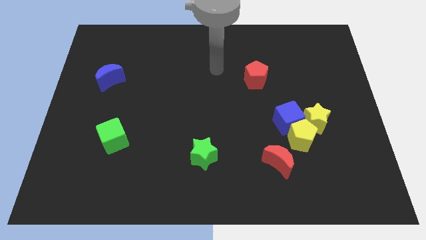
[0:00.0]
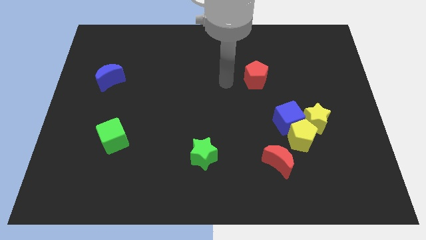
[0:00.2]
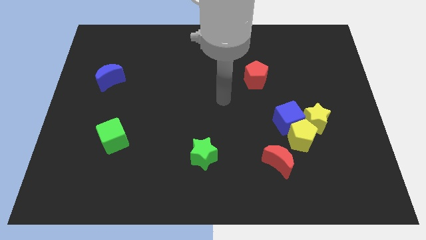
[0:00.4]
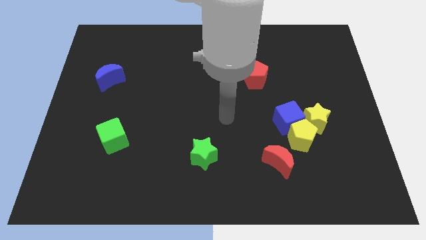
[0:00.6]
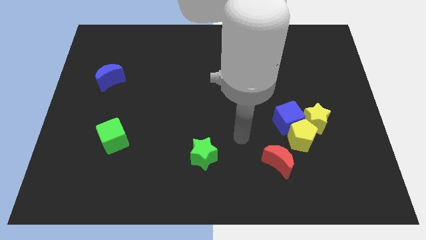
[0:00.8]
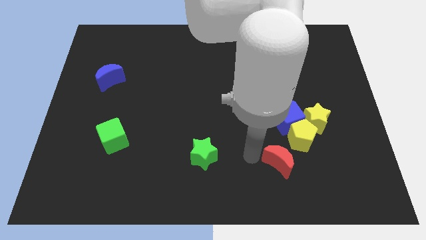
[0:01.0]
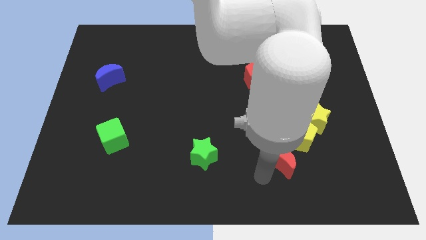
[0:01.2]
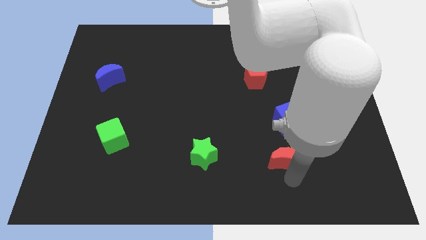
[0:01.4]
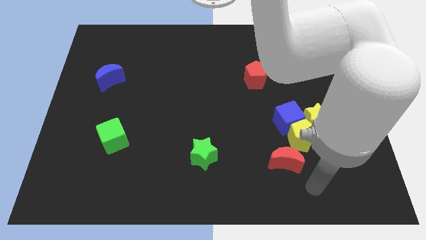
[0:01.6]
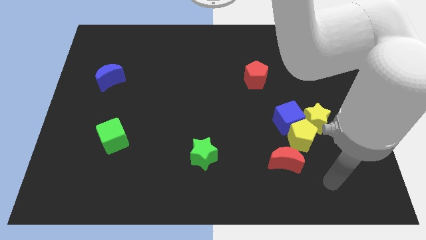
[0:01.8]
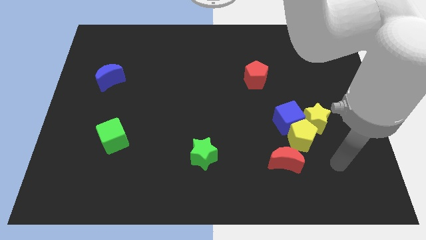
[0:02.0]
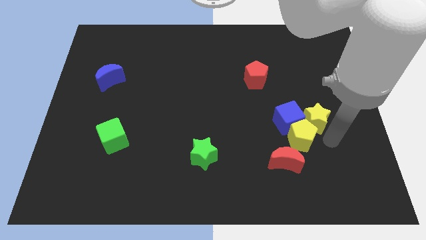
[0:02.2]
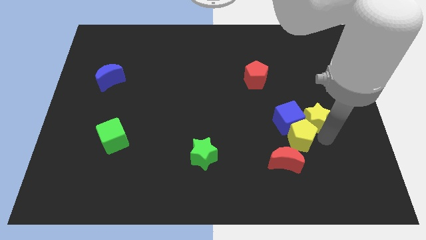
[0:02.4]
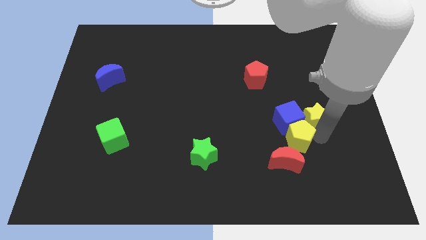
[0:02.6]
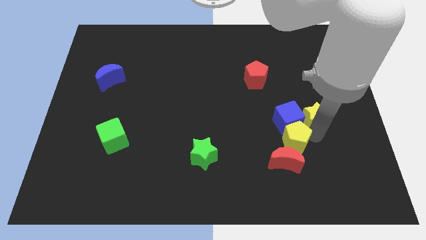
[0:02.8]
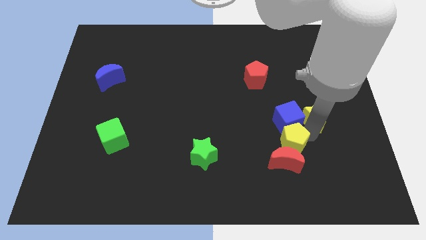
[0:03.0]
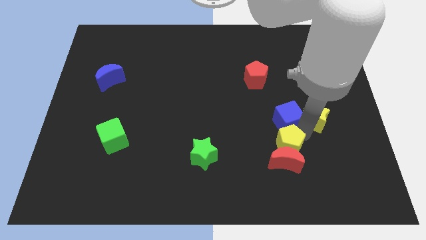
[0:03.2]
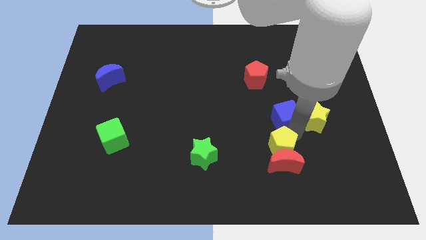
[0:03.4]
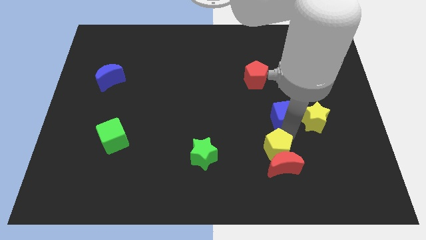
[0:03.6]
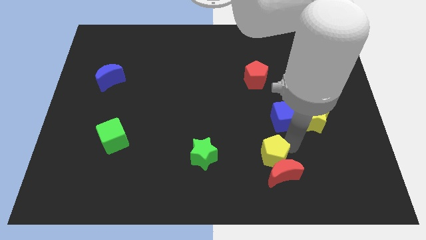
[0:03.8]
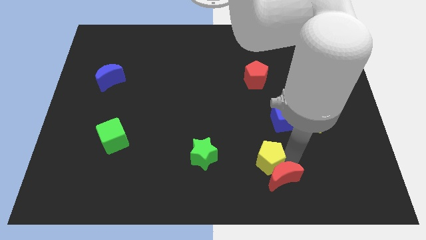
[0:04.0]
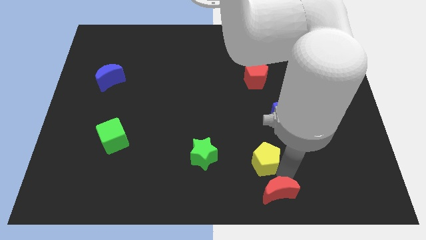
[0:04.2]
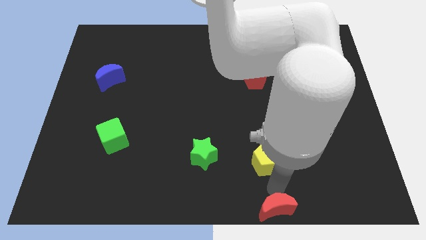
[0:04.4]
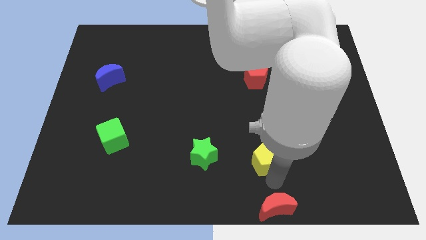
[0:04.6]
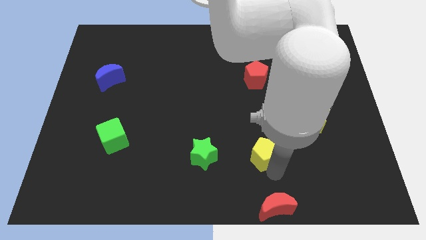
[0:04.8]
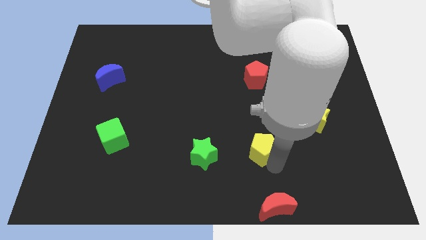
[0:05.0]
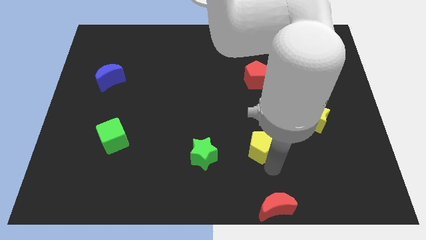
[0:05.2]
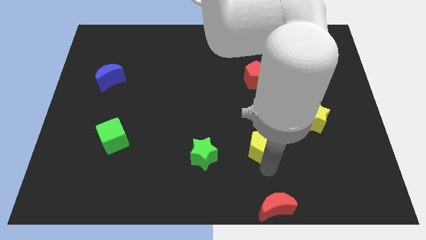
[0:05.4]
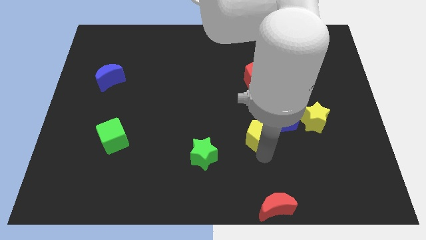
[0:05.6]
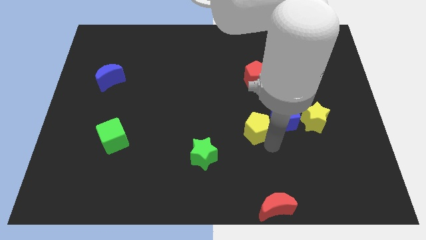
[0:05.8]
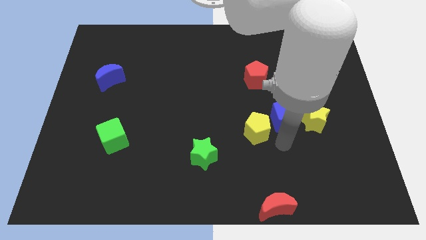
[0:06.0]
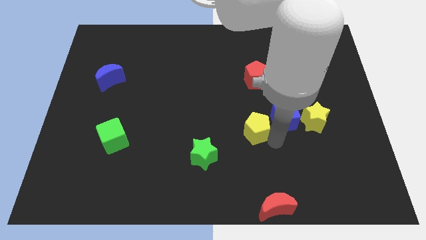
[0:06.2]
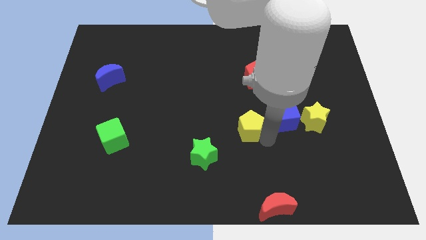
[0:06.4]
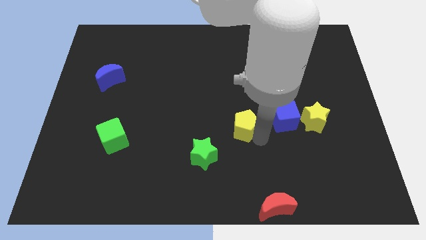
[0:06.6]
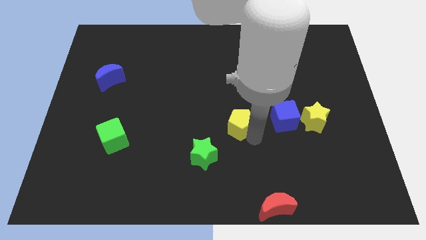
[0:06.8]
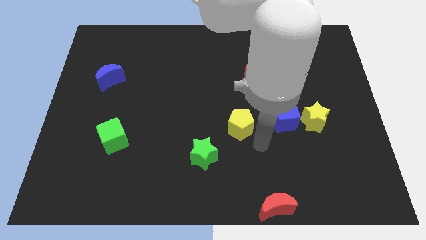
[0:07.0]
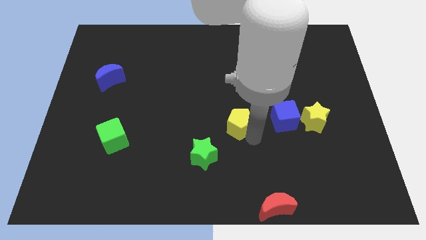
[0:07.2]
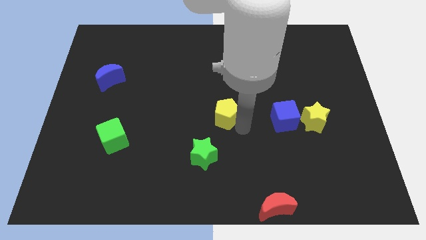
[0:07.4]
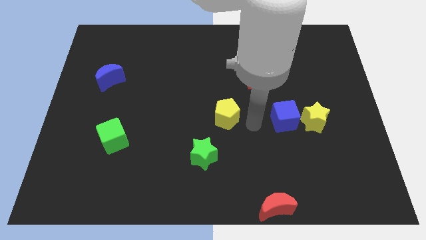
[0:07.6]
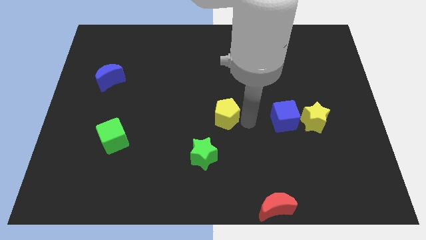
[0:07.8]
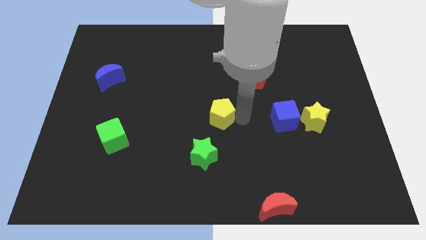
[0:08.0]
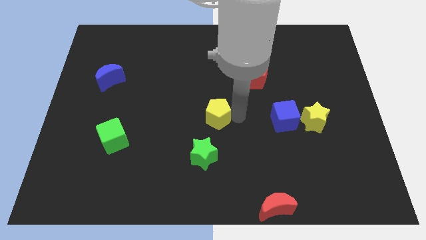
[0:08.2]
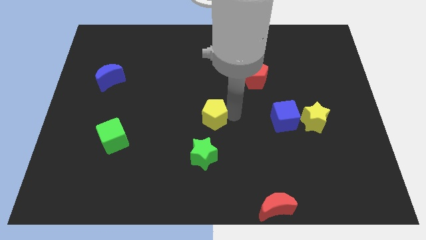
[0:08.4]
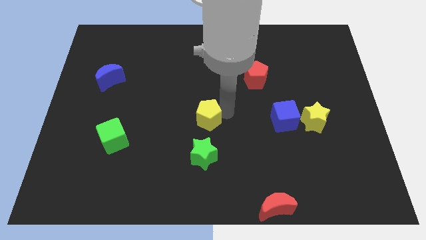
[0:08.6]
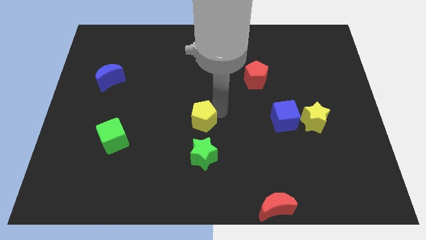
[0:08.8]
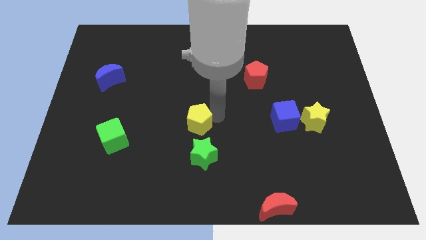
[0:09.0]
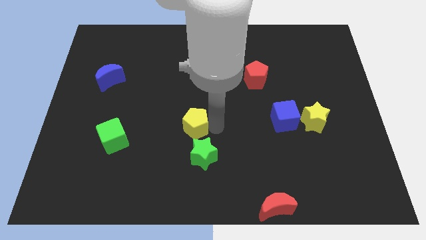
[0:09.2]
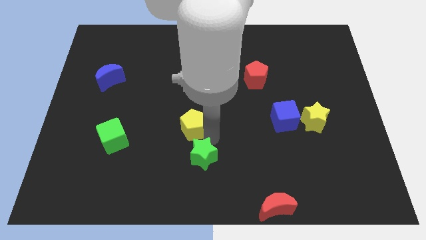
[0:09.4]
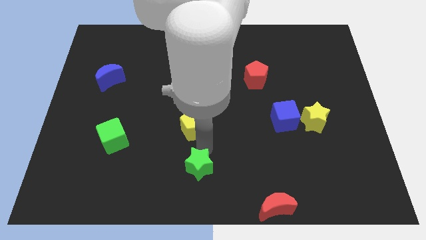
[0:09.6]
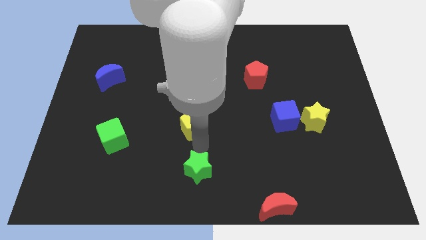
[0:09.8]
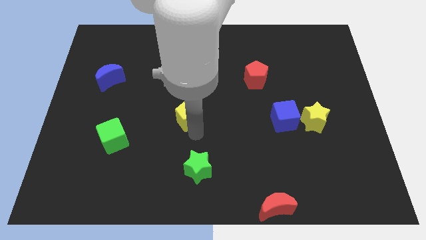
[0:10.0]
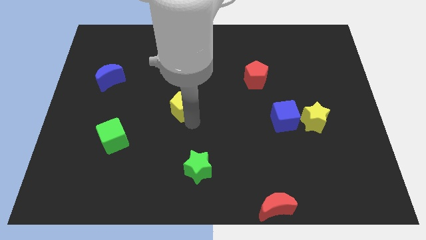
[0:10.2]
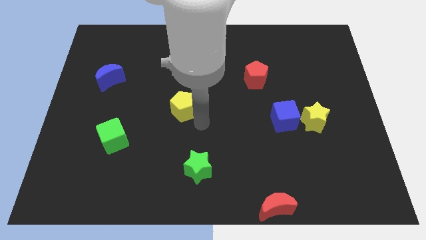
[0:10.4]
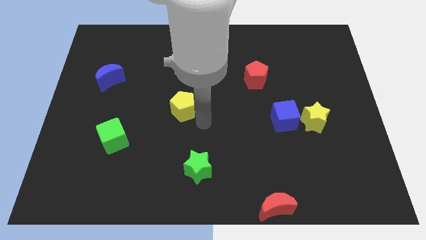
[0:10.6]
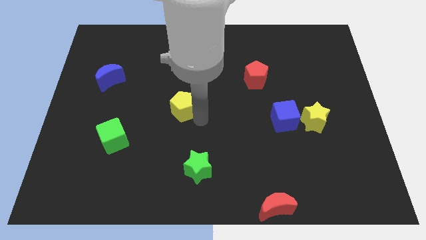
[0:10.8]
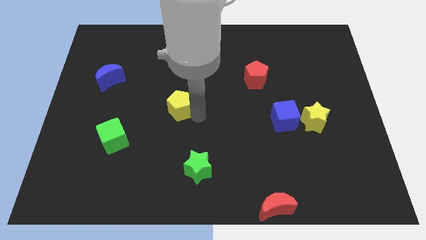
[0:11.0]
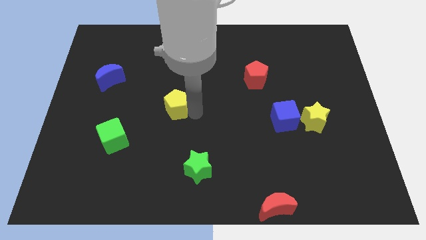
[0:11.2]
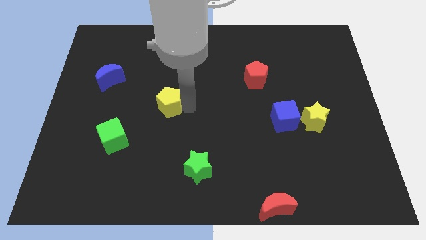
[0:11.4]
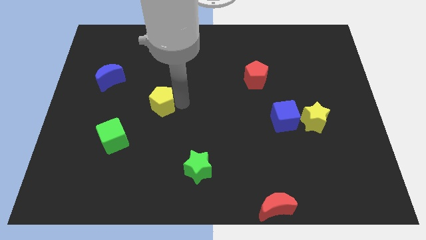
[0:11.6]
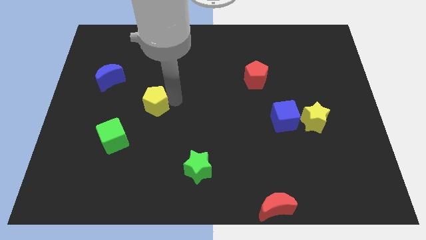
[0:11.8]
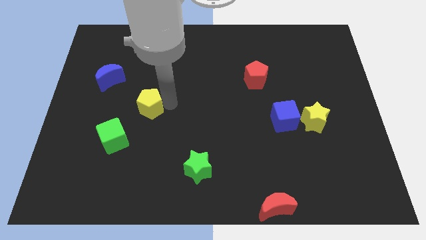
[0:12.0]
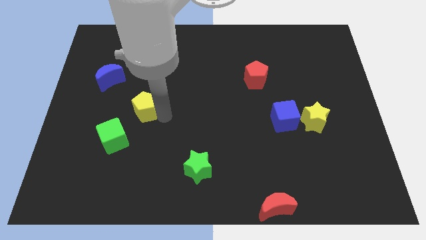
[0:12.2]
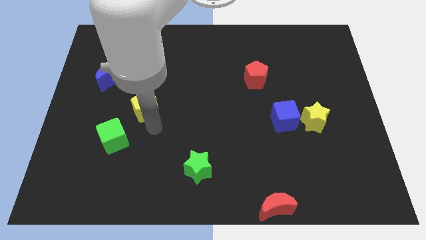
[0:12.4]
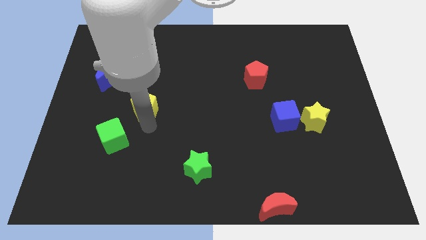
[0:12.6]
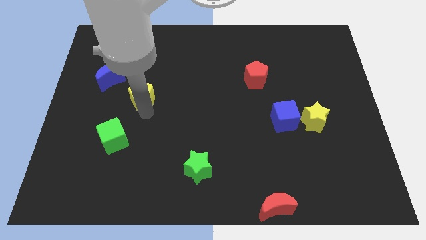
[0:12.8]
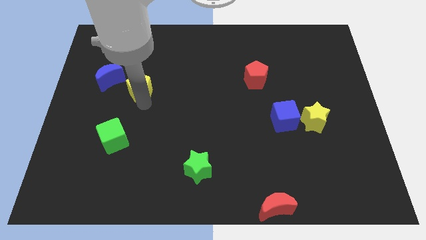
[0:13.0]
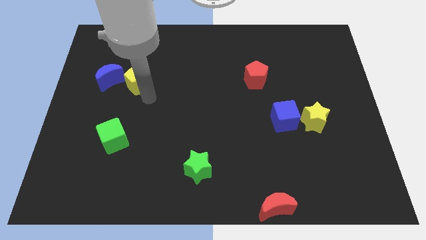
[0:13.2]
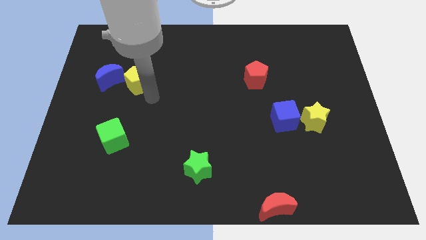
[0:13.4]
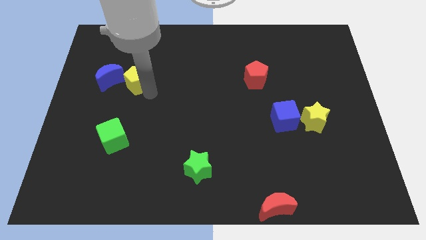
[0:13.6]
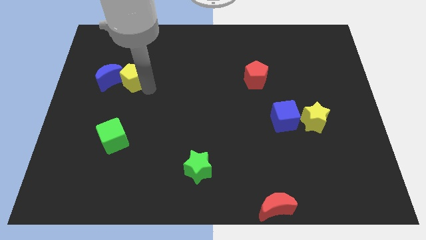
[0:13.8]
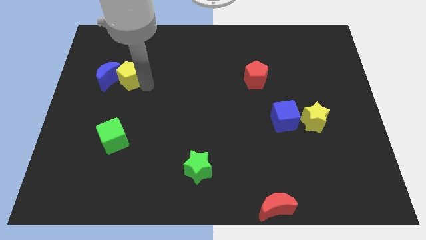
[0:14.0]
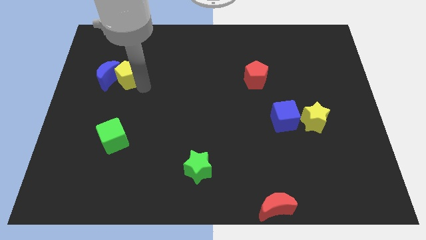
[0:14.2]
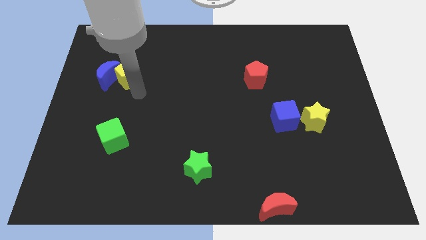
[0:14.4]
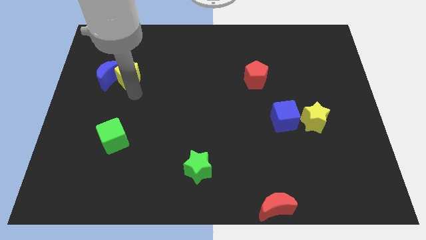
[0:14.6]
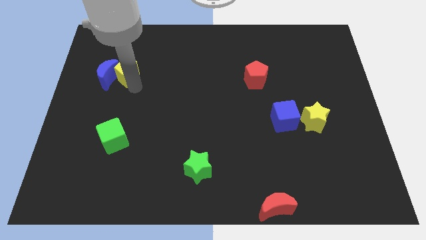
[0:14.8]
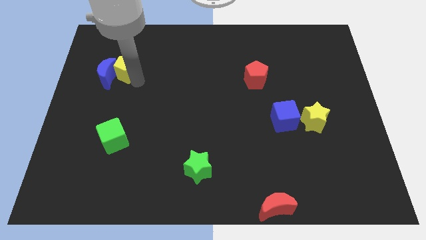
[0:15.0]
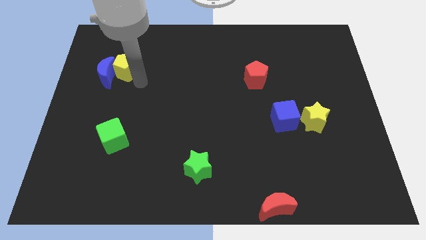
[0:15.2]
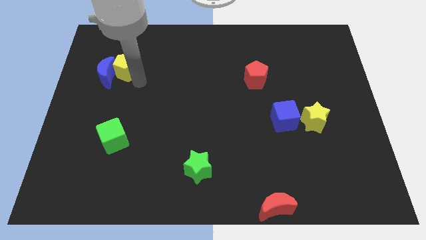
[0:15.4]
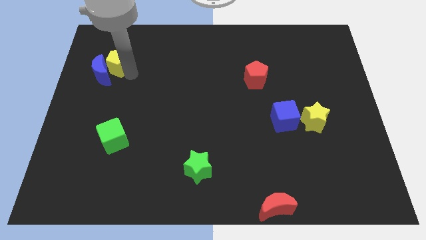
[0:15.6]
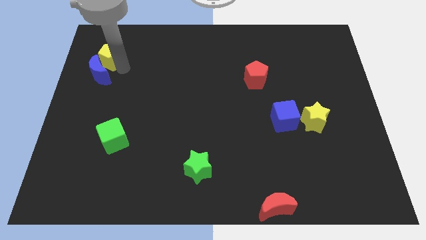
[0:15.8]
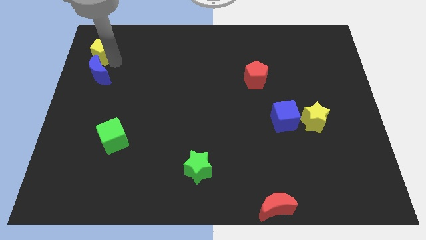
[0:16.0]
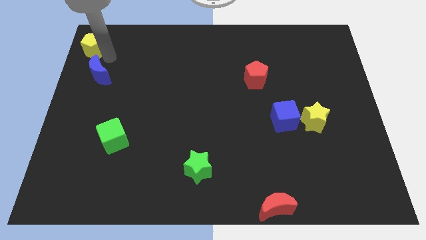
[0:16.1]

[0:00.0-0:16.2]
put the yellow pentagon to the top left of the board
